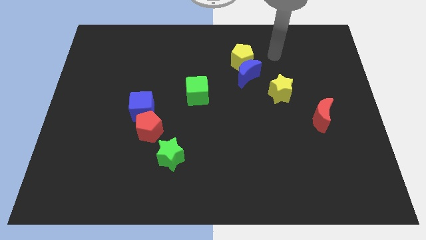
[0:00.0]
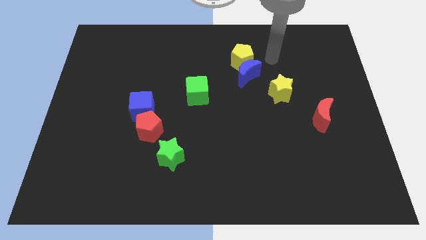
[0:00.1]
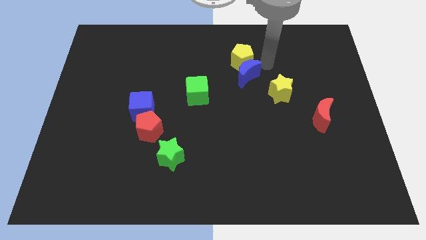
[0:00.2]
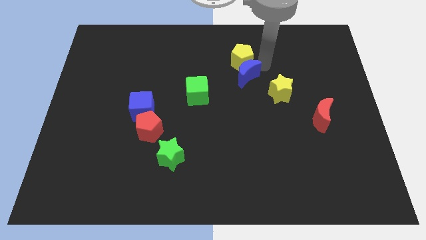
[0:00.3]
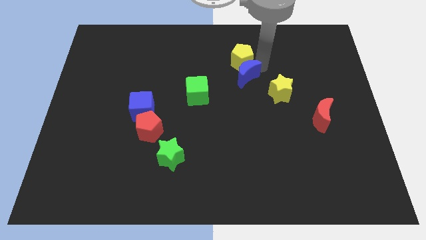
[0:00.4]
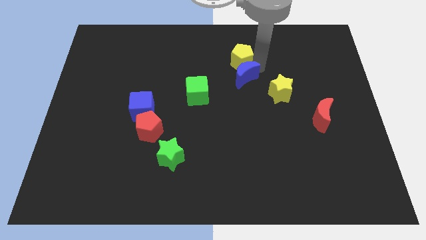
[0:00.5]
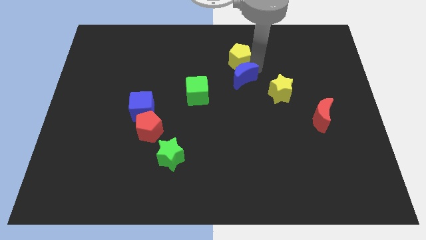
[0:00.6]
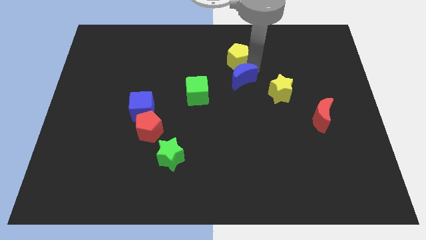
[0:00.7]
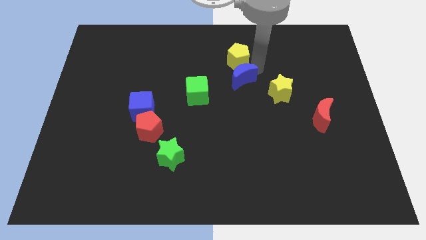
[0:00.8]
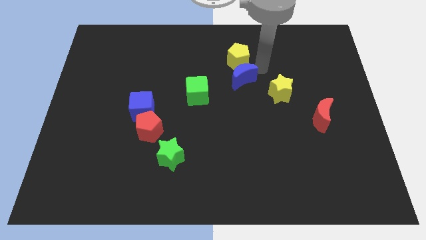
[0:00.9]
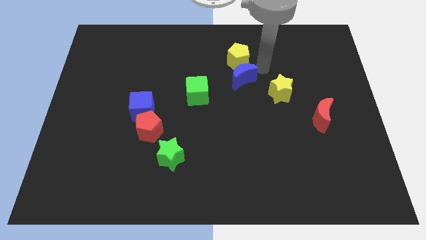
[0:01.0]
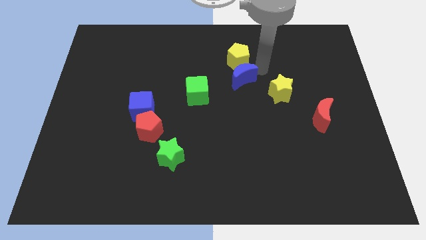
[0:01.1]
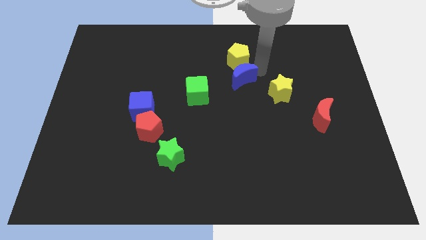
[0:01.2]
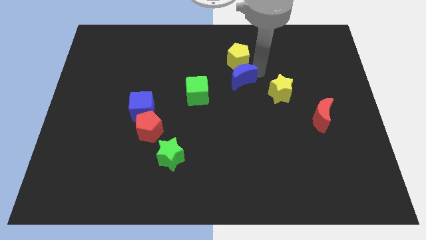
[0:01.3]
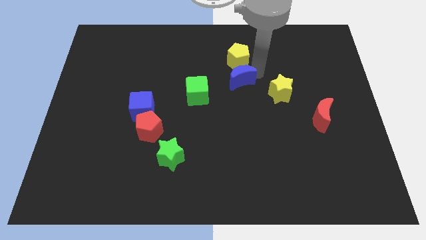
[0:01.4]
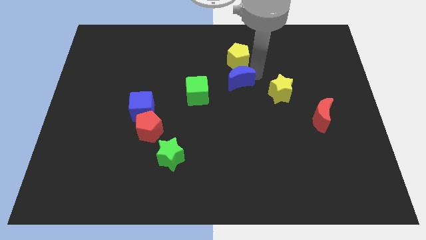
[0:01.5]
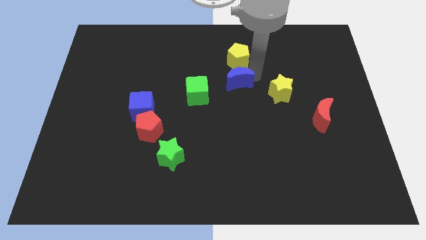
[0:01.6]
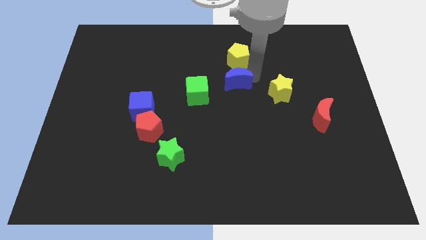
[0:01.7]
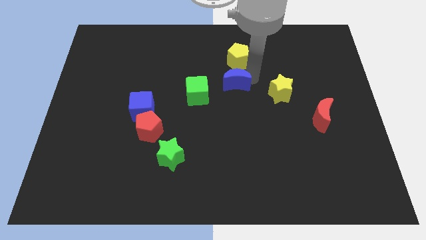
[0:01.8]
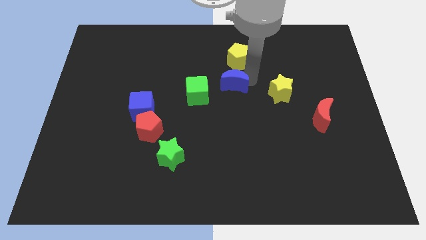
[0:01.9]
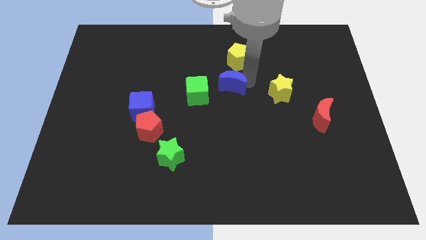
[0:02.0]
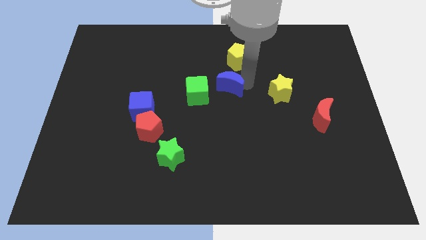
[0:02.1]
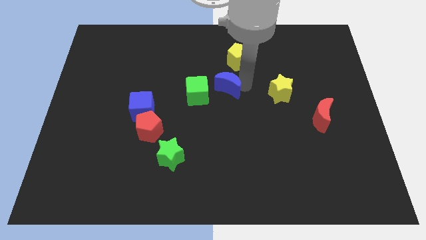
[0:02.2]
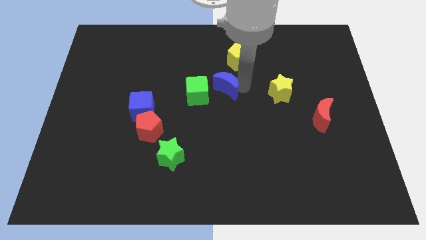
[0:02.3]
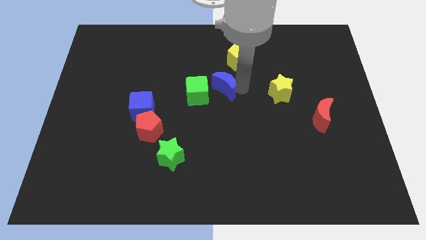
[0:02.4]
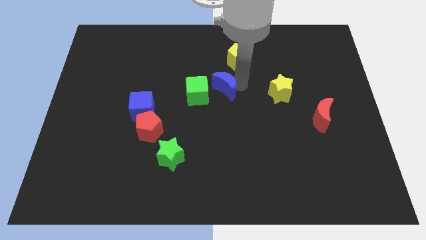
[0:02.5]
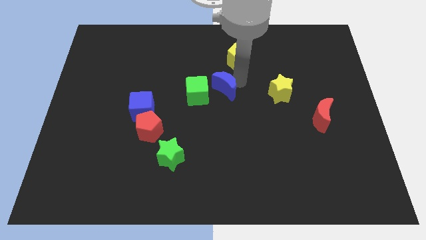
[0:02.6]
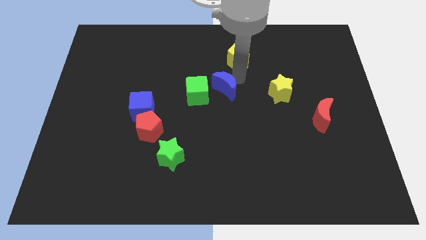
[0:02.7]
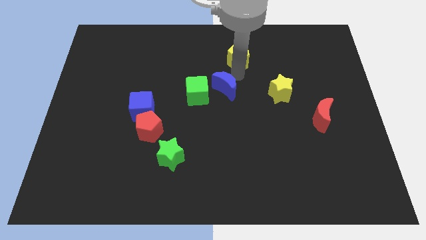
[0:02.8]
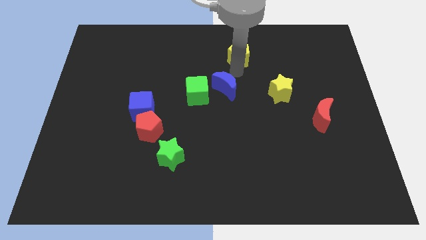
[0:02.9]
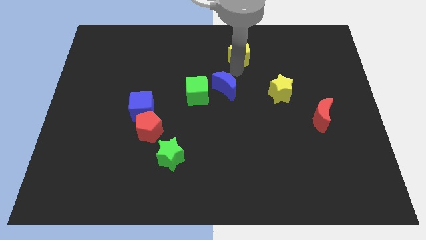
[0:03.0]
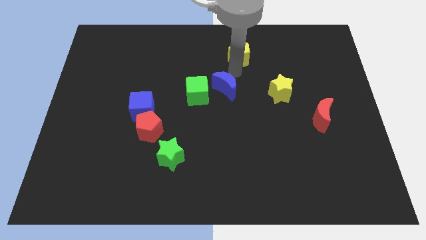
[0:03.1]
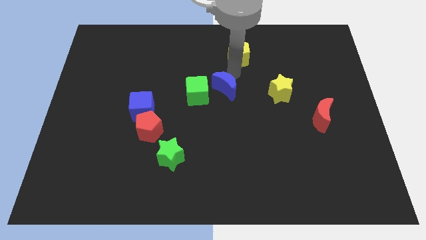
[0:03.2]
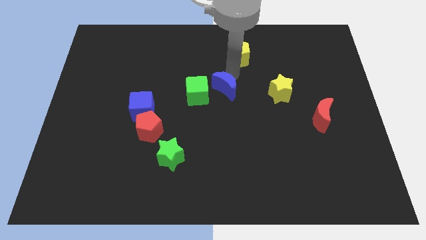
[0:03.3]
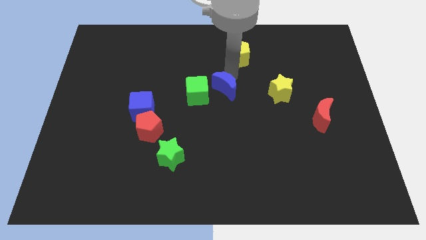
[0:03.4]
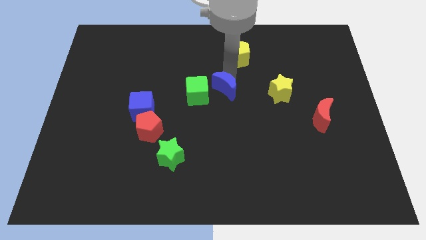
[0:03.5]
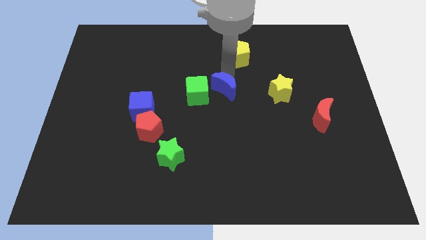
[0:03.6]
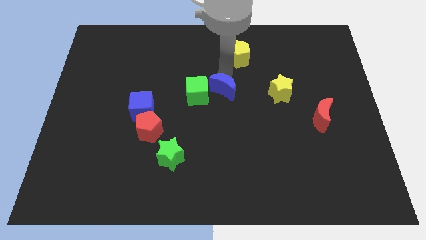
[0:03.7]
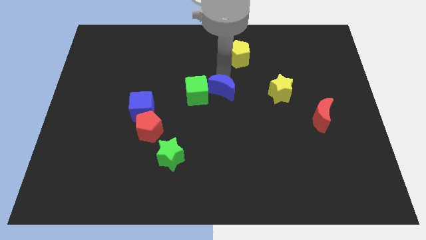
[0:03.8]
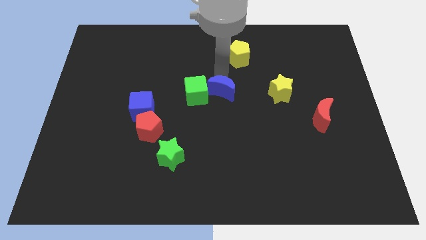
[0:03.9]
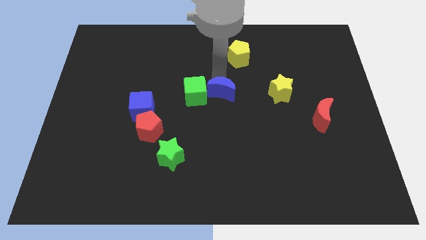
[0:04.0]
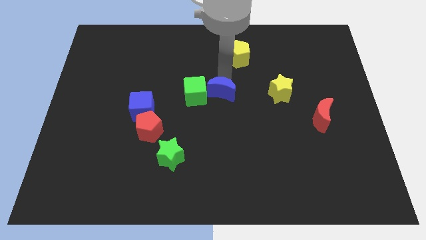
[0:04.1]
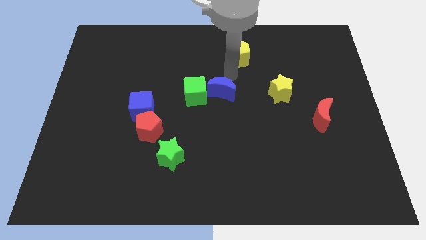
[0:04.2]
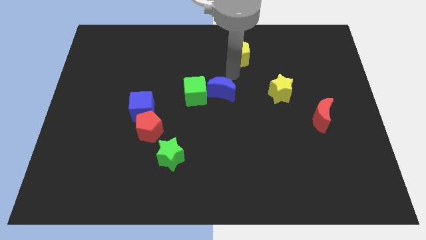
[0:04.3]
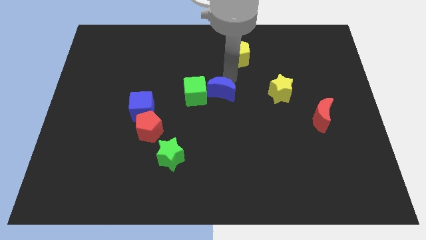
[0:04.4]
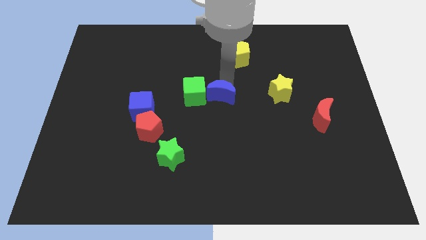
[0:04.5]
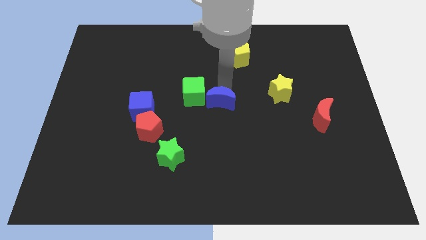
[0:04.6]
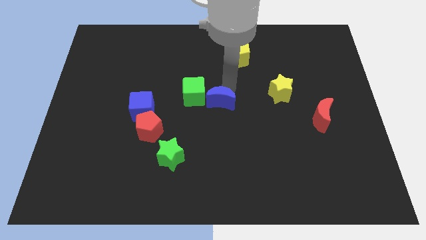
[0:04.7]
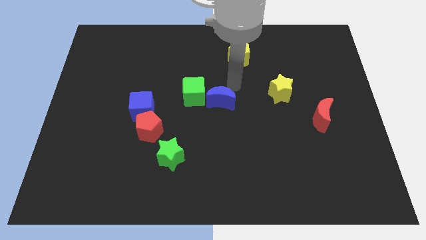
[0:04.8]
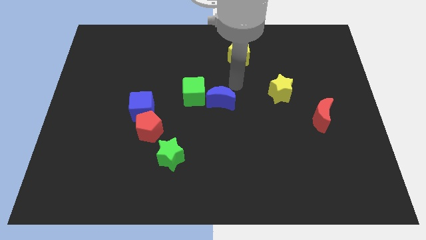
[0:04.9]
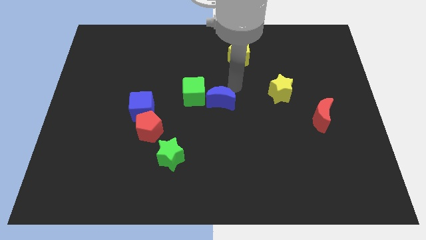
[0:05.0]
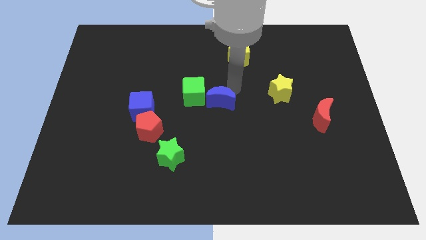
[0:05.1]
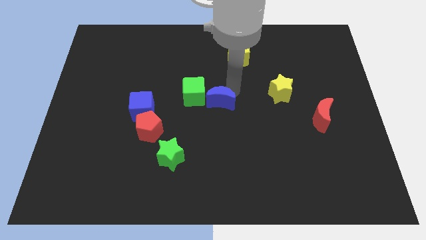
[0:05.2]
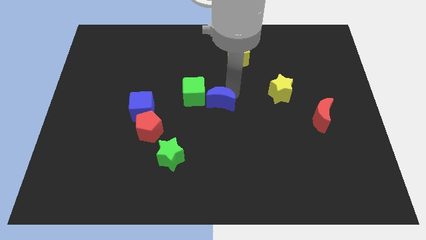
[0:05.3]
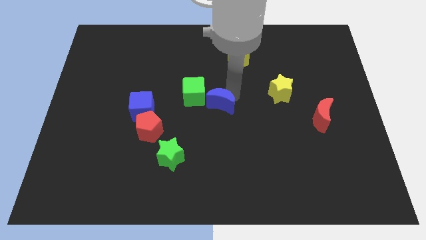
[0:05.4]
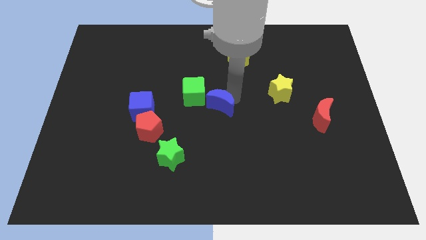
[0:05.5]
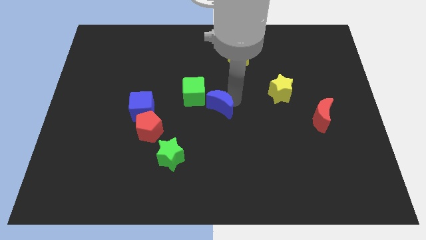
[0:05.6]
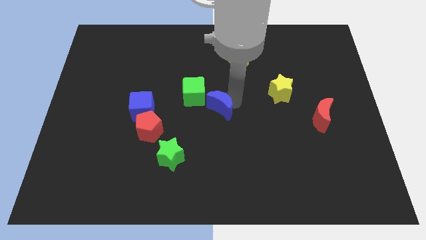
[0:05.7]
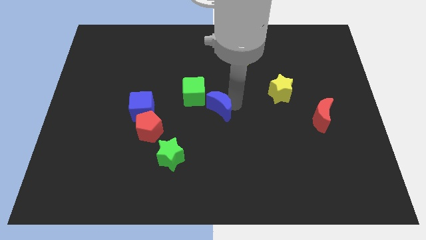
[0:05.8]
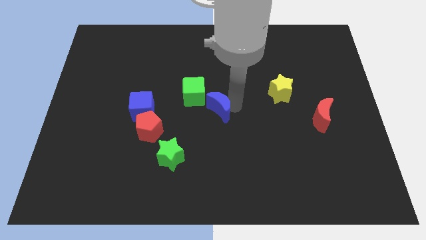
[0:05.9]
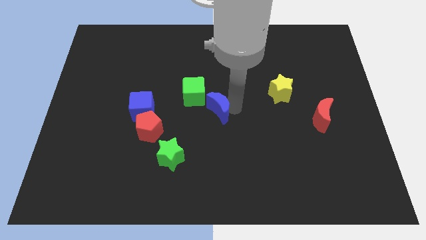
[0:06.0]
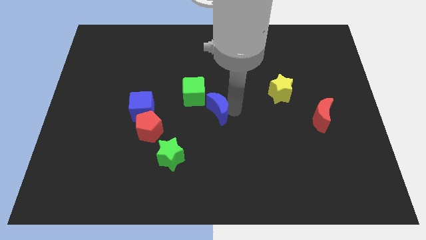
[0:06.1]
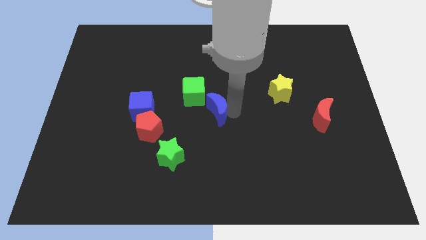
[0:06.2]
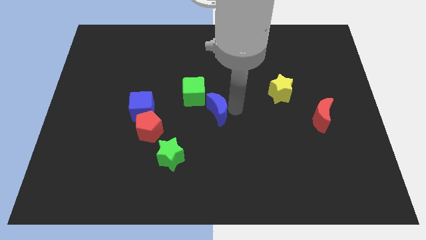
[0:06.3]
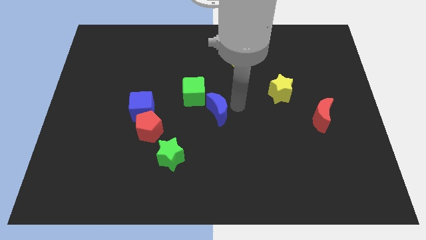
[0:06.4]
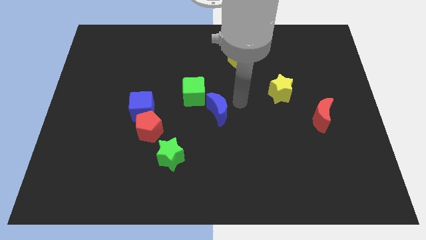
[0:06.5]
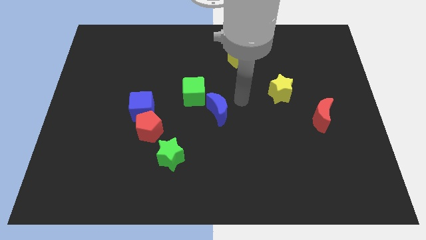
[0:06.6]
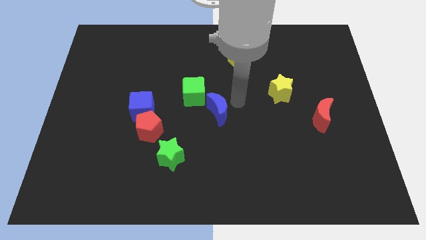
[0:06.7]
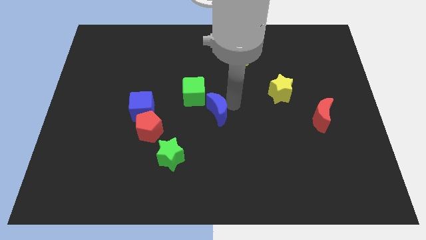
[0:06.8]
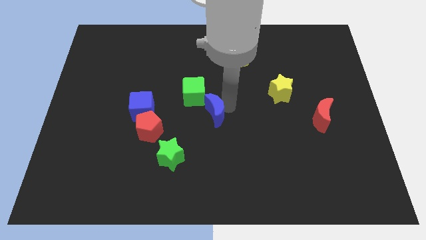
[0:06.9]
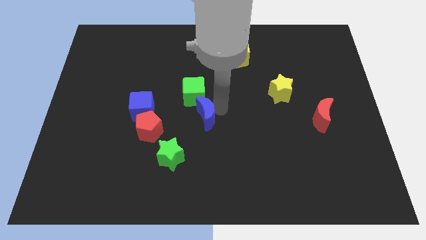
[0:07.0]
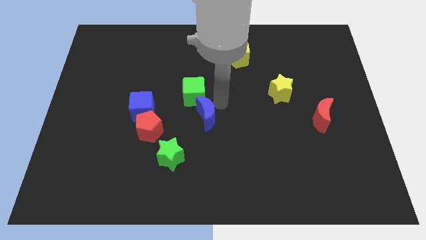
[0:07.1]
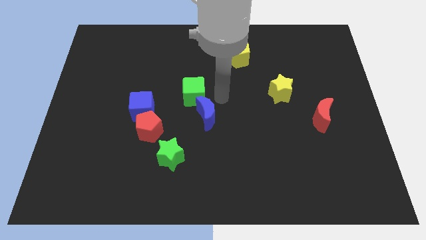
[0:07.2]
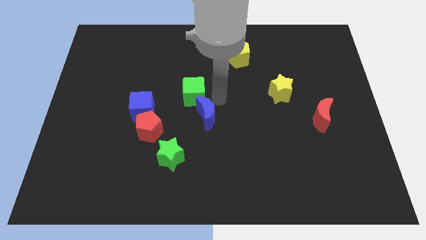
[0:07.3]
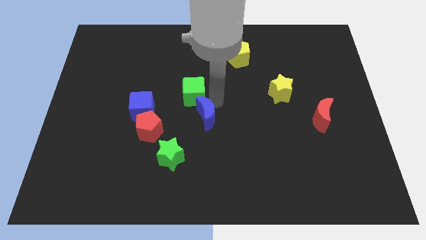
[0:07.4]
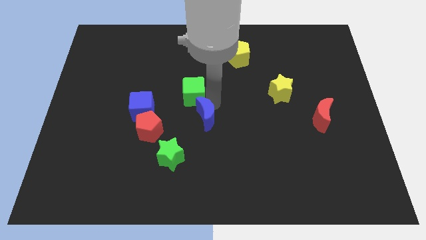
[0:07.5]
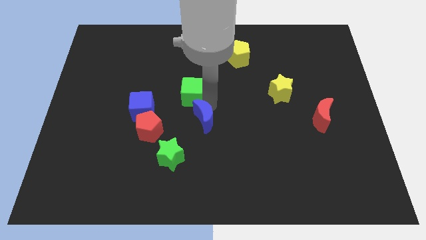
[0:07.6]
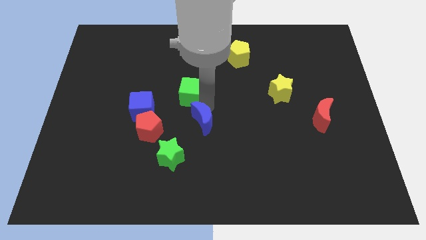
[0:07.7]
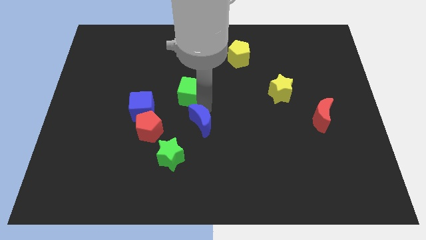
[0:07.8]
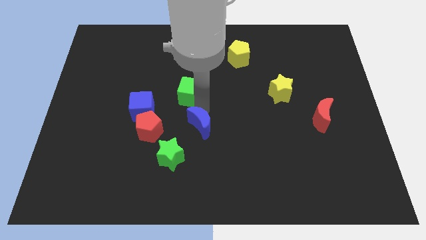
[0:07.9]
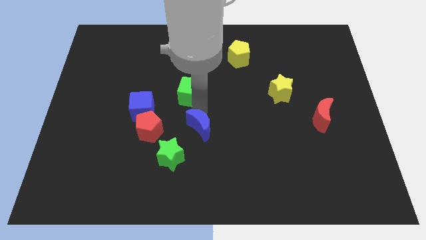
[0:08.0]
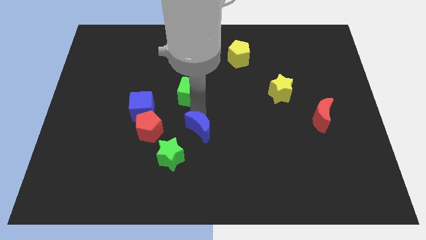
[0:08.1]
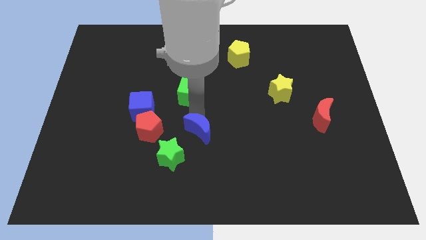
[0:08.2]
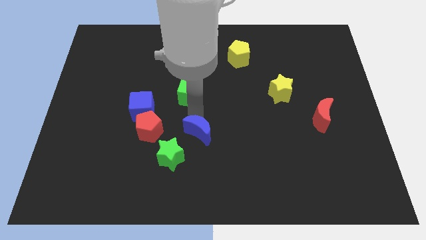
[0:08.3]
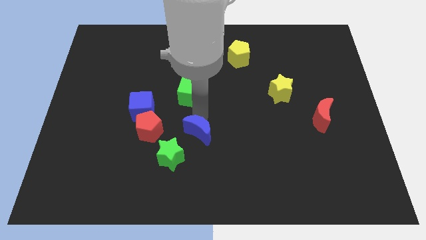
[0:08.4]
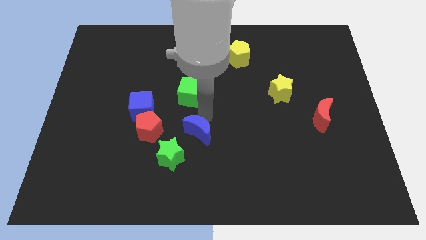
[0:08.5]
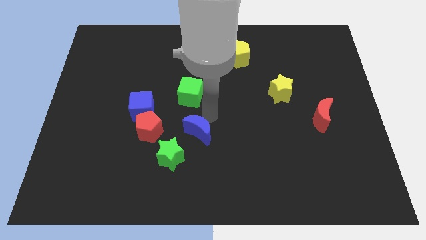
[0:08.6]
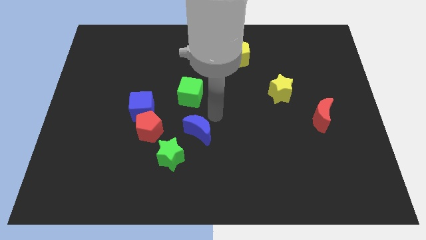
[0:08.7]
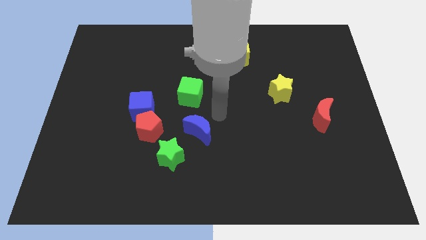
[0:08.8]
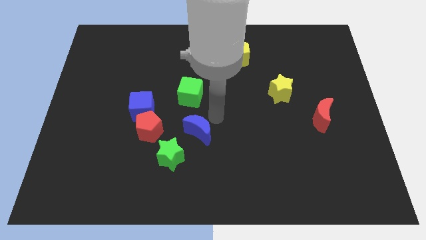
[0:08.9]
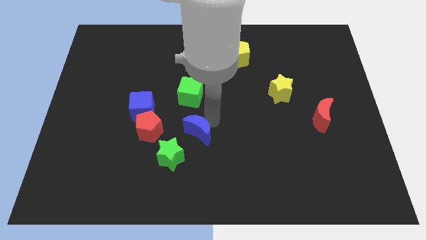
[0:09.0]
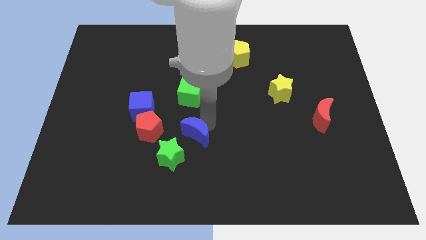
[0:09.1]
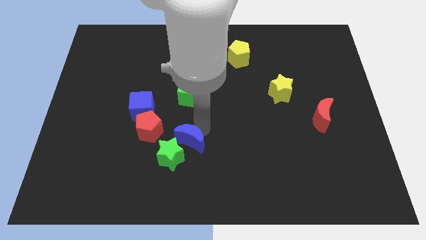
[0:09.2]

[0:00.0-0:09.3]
push the blue moon close to the green star
